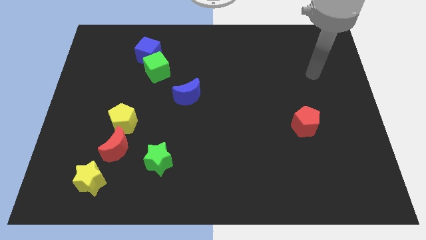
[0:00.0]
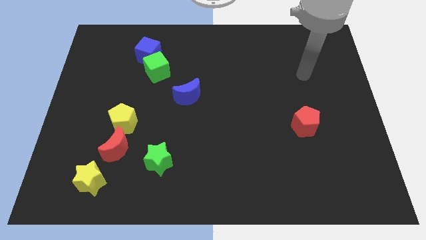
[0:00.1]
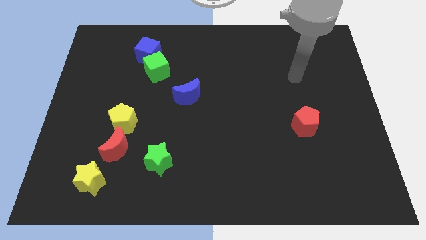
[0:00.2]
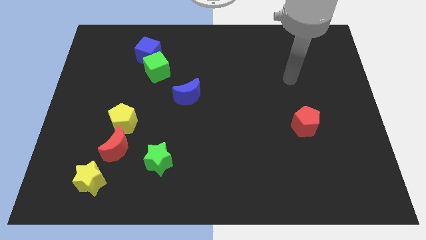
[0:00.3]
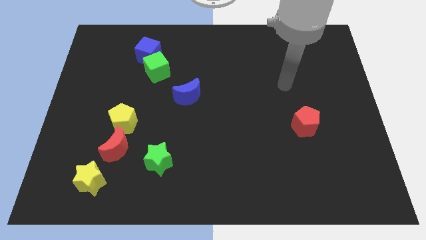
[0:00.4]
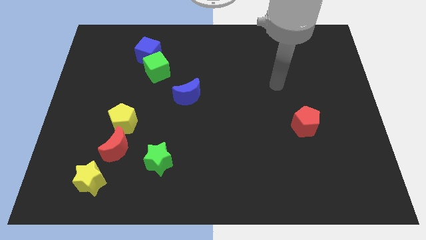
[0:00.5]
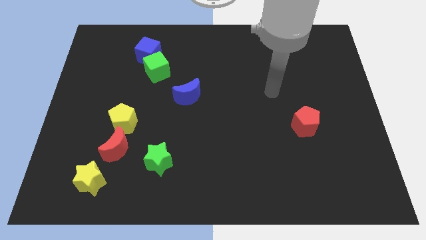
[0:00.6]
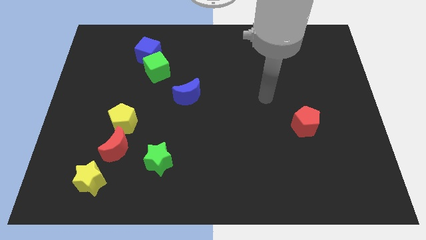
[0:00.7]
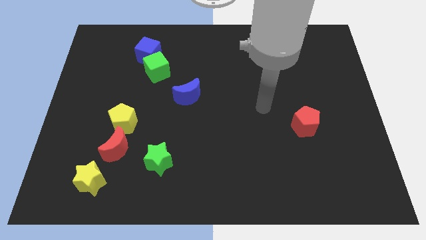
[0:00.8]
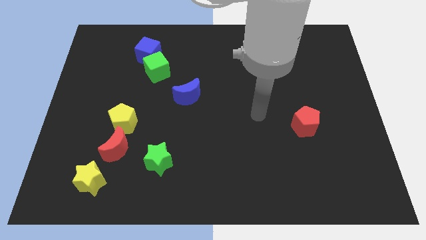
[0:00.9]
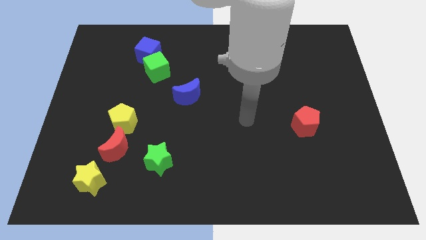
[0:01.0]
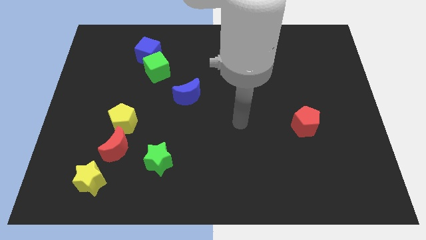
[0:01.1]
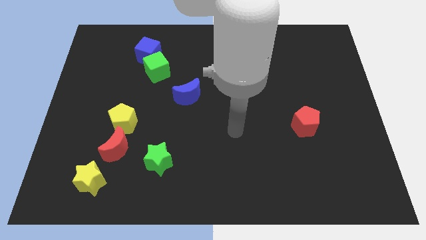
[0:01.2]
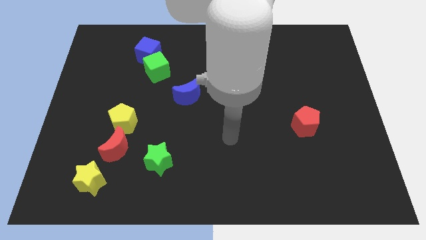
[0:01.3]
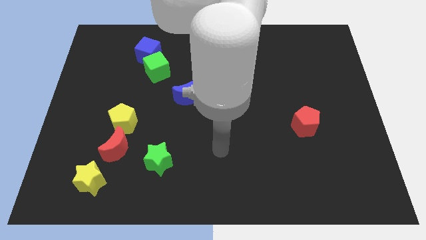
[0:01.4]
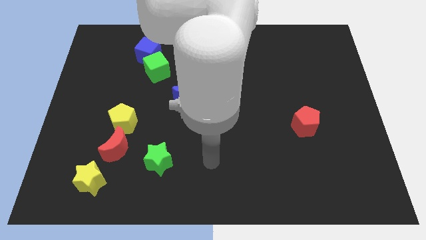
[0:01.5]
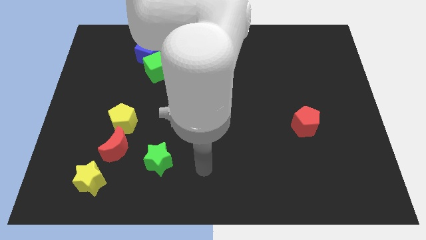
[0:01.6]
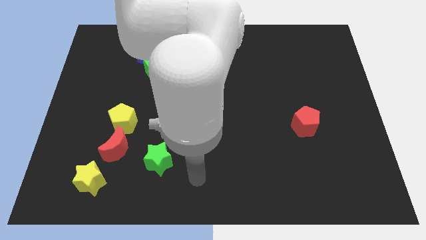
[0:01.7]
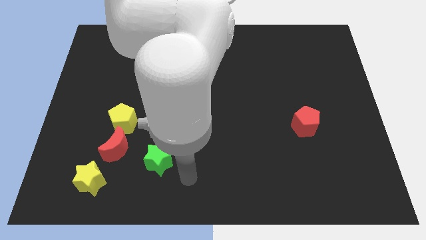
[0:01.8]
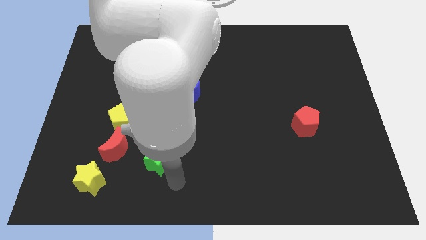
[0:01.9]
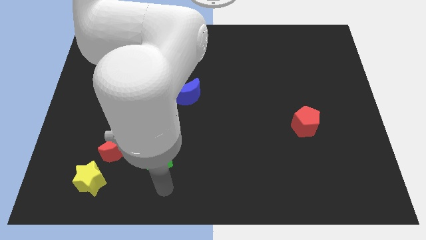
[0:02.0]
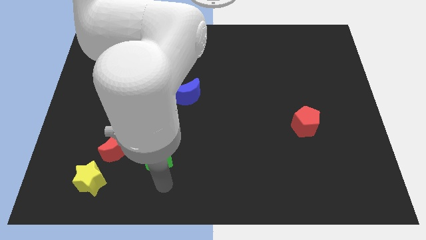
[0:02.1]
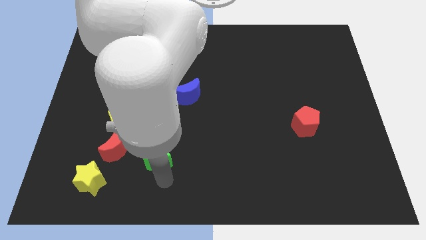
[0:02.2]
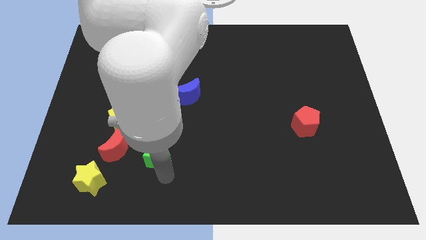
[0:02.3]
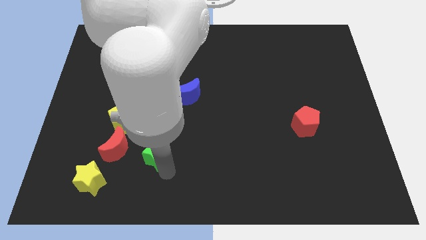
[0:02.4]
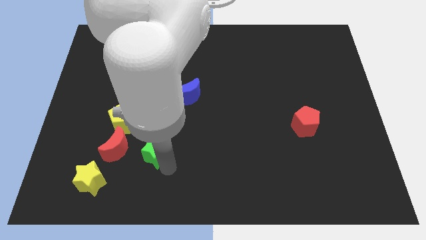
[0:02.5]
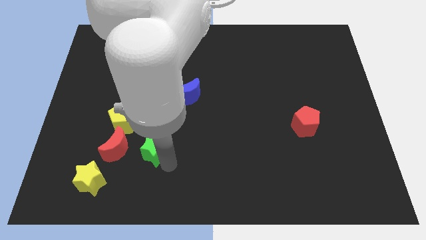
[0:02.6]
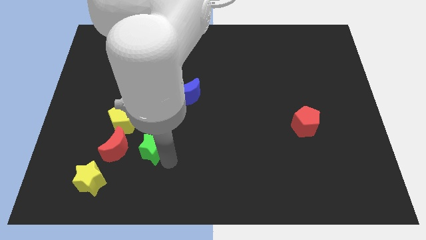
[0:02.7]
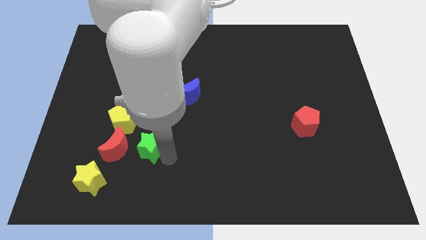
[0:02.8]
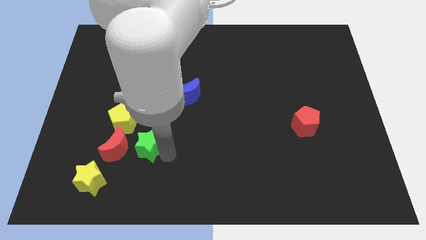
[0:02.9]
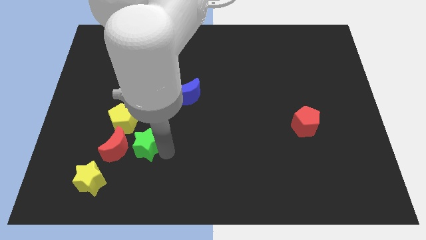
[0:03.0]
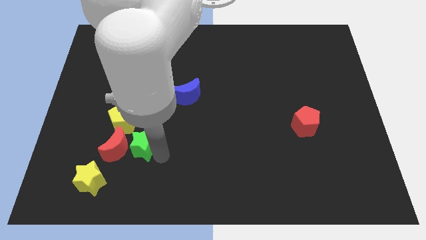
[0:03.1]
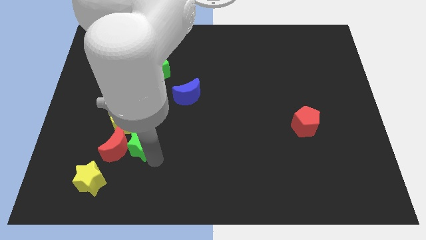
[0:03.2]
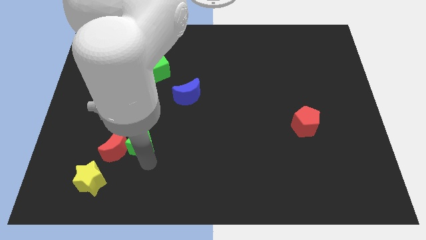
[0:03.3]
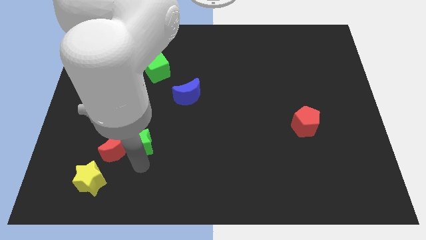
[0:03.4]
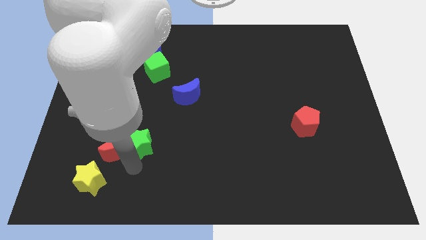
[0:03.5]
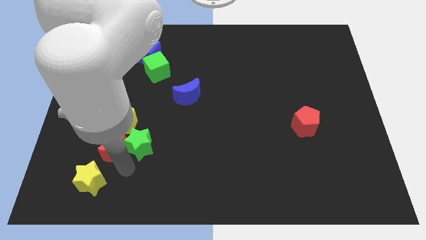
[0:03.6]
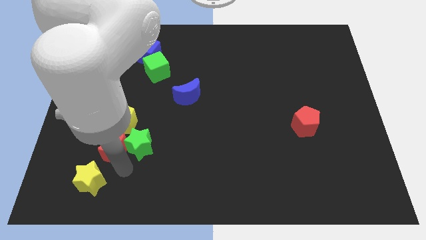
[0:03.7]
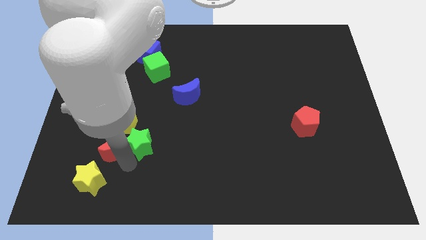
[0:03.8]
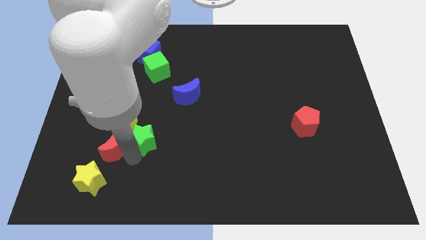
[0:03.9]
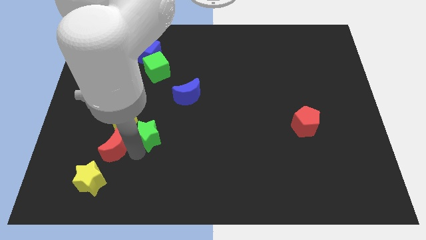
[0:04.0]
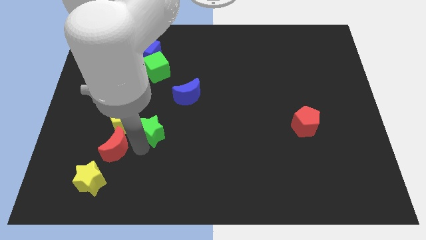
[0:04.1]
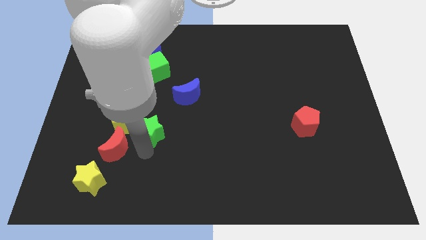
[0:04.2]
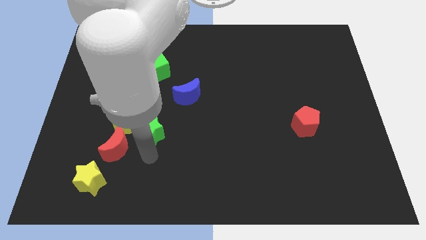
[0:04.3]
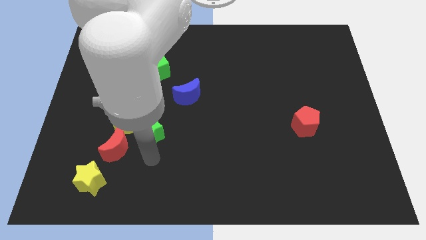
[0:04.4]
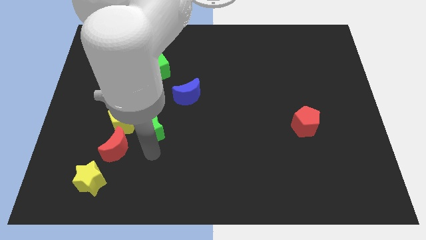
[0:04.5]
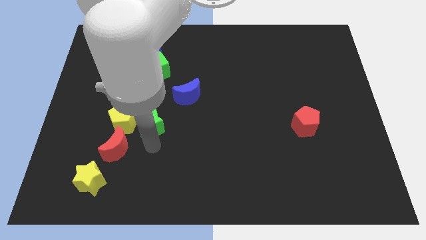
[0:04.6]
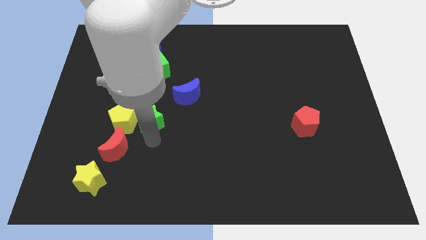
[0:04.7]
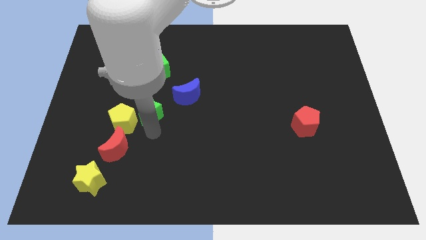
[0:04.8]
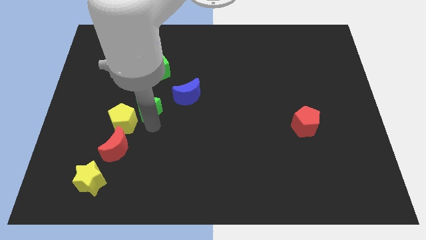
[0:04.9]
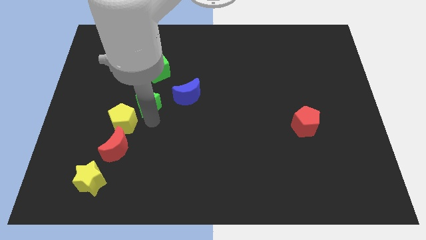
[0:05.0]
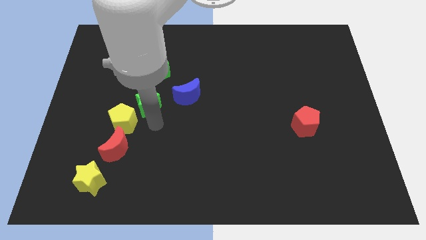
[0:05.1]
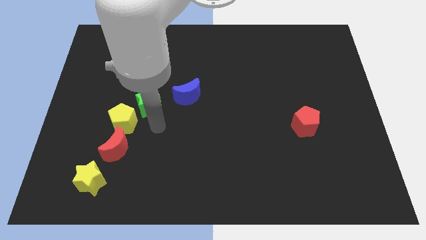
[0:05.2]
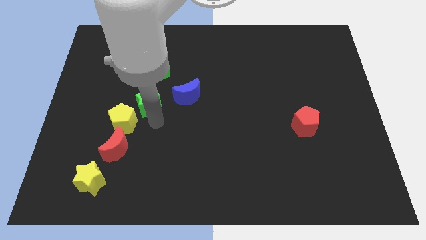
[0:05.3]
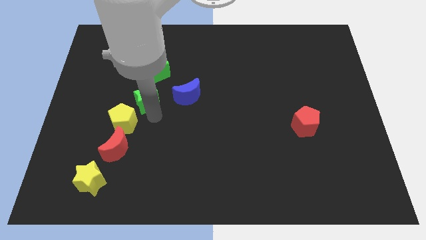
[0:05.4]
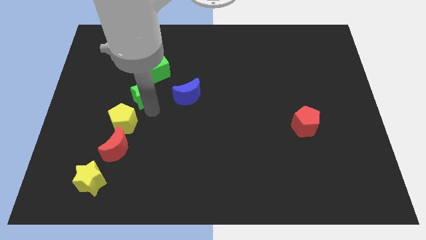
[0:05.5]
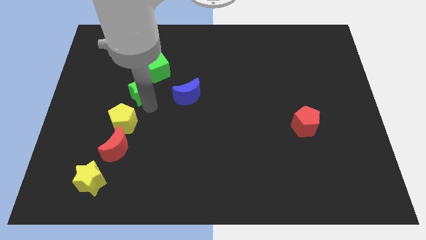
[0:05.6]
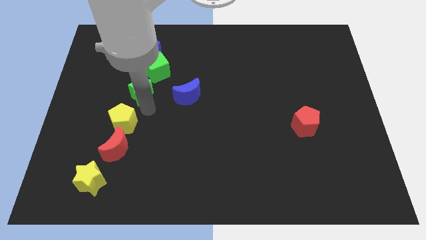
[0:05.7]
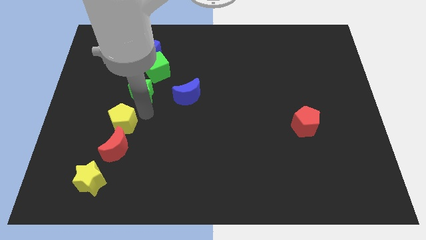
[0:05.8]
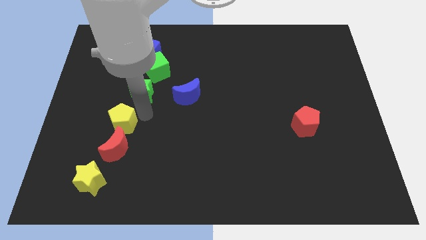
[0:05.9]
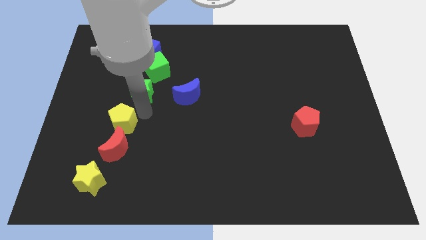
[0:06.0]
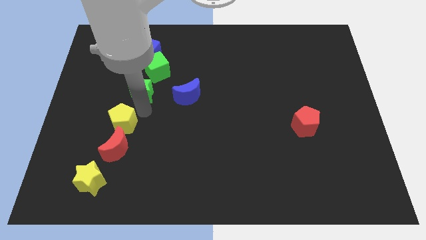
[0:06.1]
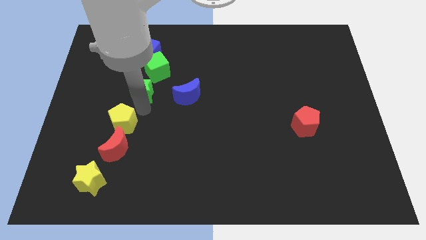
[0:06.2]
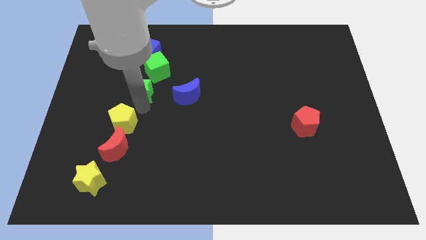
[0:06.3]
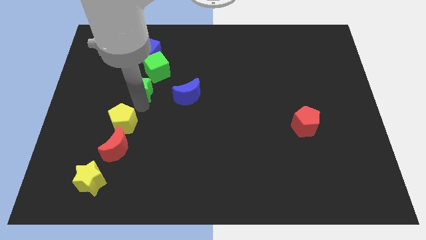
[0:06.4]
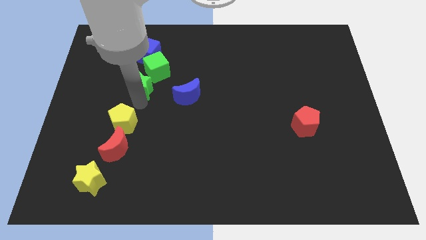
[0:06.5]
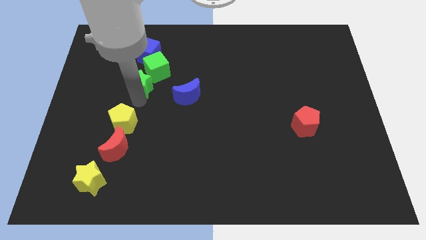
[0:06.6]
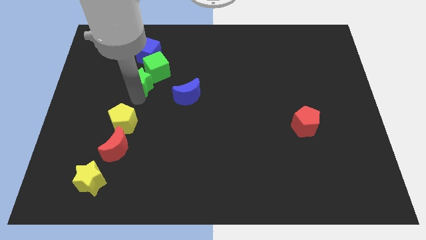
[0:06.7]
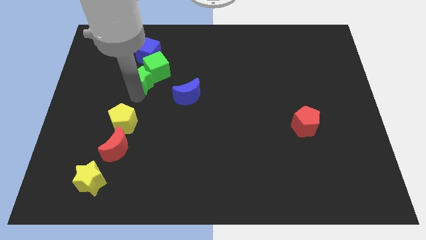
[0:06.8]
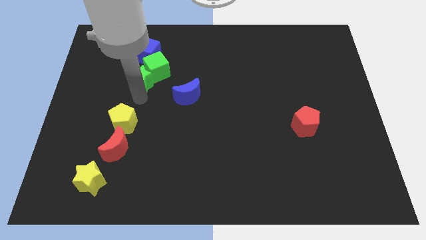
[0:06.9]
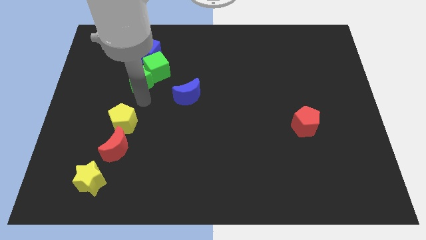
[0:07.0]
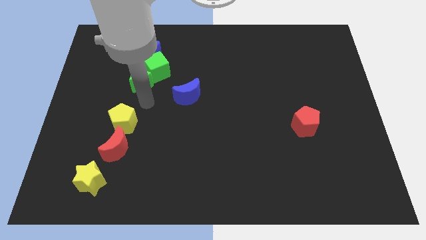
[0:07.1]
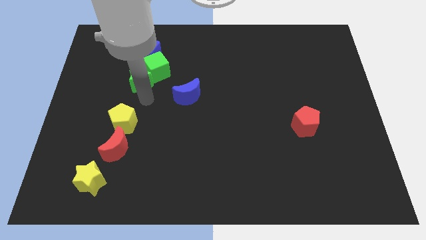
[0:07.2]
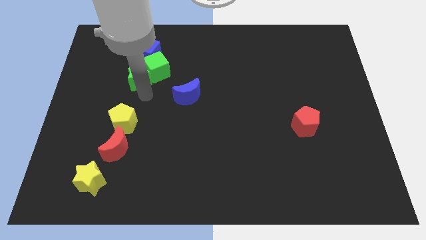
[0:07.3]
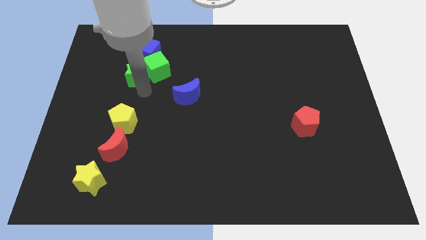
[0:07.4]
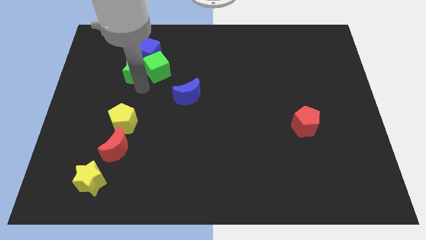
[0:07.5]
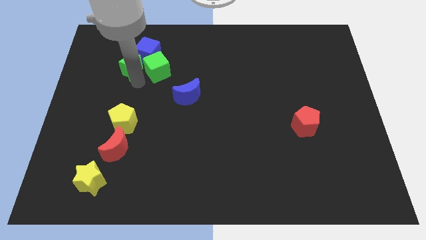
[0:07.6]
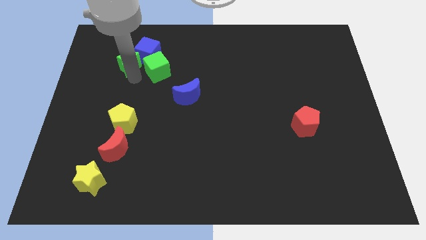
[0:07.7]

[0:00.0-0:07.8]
push the green star close to the blue cube
